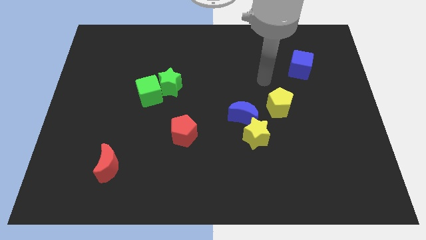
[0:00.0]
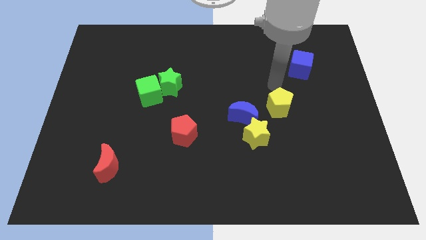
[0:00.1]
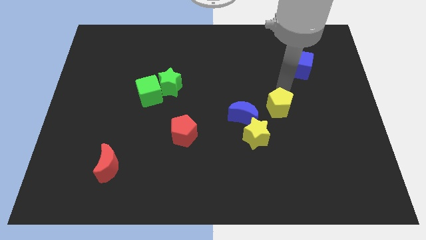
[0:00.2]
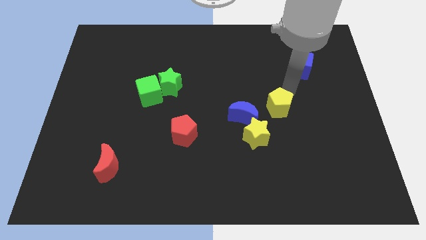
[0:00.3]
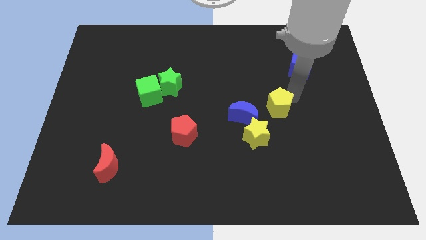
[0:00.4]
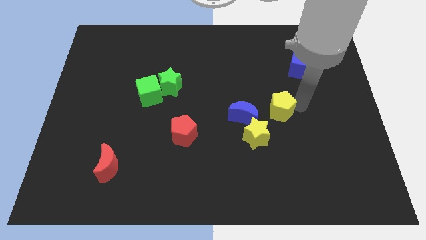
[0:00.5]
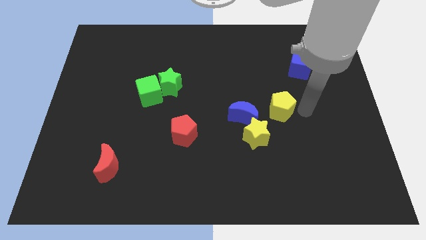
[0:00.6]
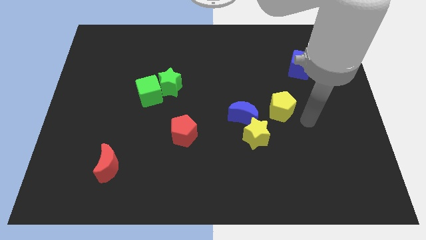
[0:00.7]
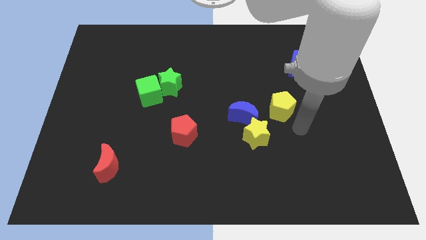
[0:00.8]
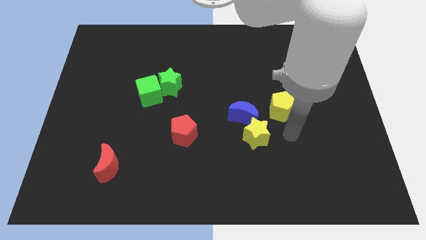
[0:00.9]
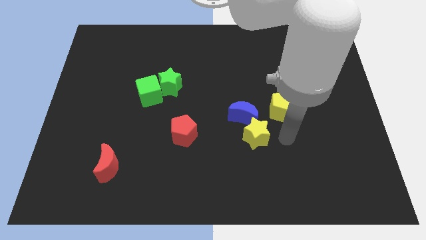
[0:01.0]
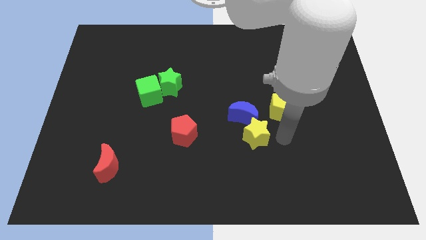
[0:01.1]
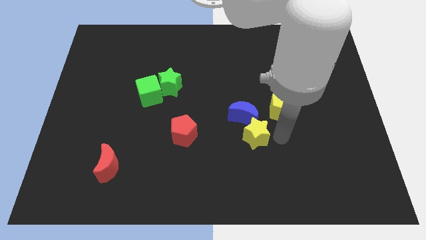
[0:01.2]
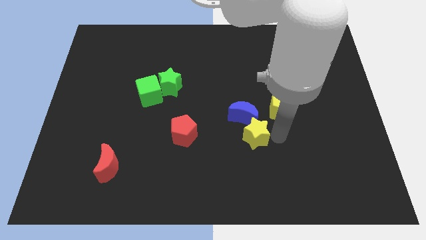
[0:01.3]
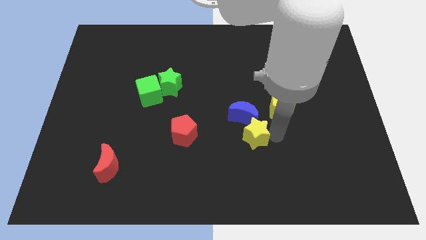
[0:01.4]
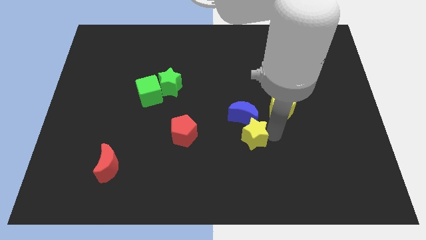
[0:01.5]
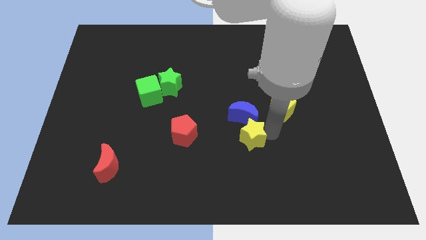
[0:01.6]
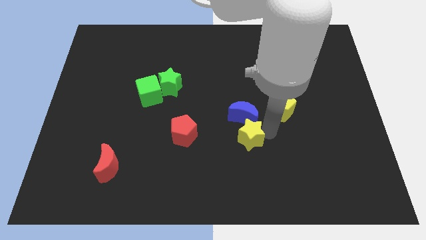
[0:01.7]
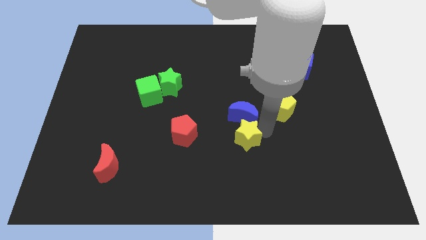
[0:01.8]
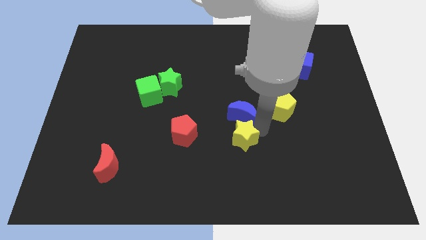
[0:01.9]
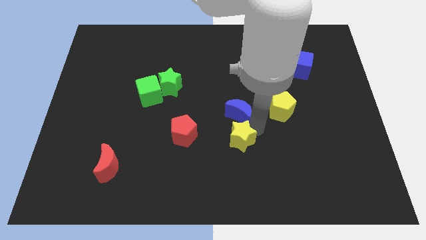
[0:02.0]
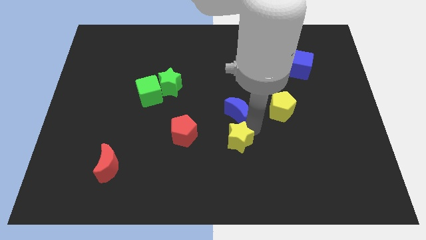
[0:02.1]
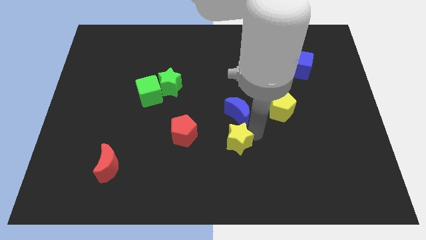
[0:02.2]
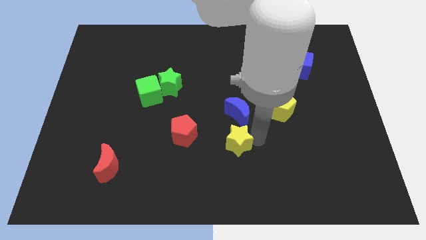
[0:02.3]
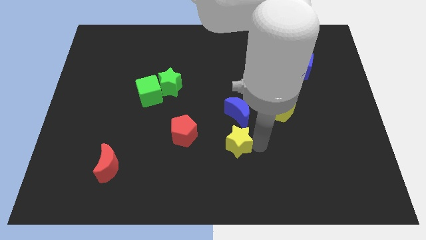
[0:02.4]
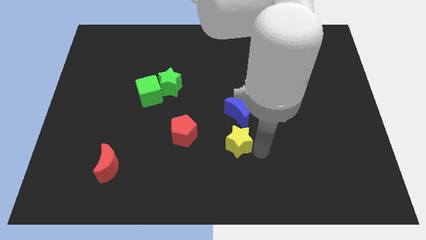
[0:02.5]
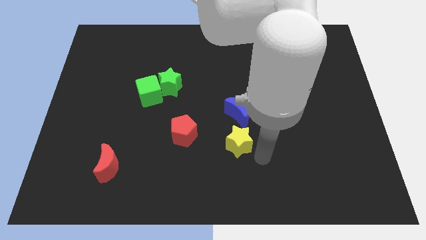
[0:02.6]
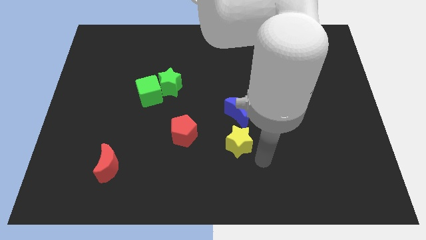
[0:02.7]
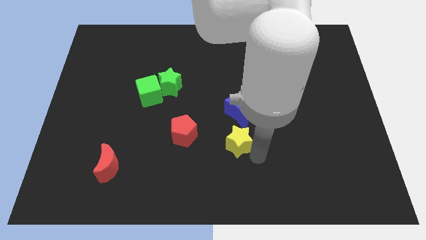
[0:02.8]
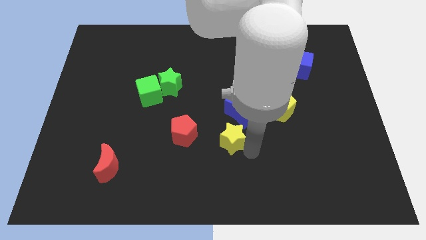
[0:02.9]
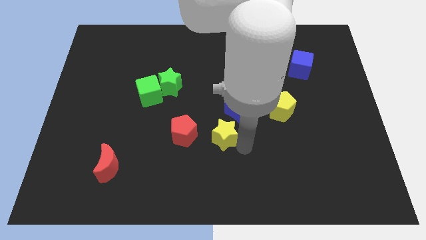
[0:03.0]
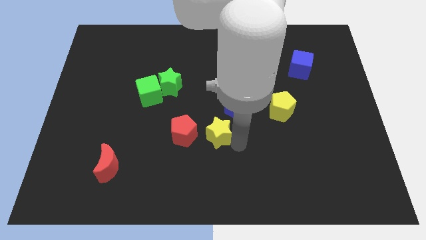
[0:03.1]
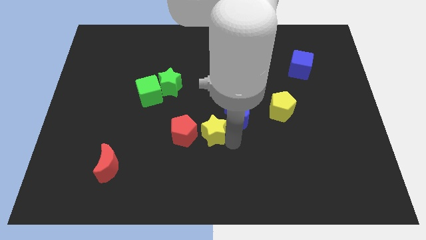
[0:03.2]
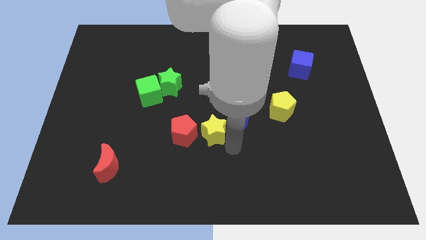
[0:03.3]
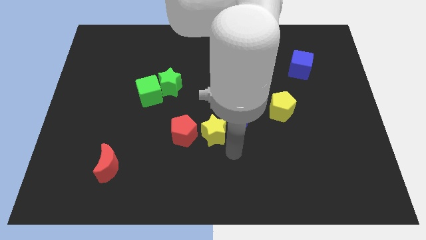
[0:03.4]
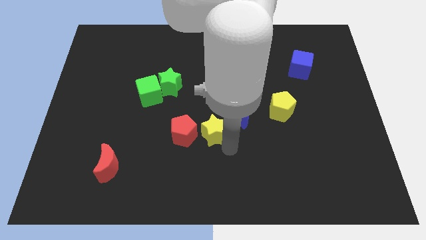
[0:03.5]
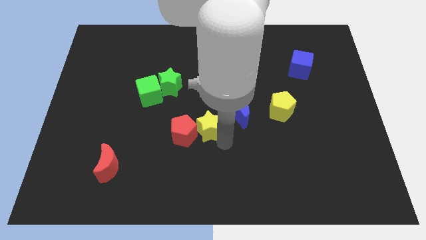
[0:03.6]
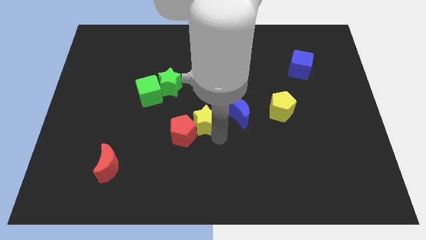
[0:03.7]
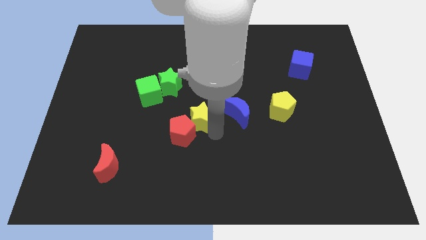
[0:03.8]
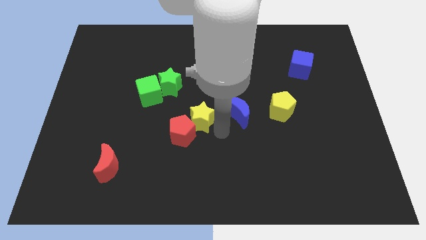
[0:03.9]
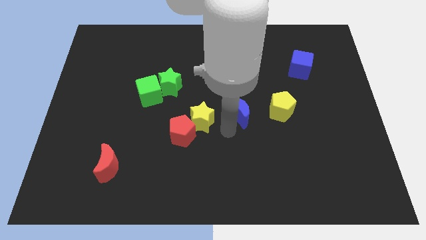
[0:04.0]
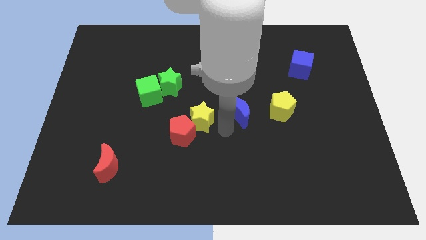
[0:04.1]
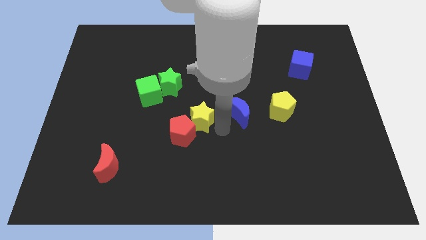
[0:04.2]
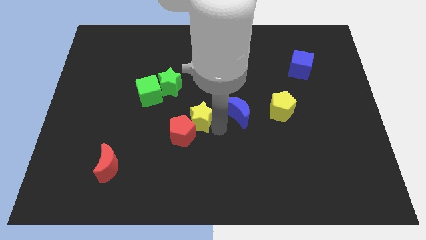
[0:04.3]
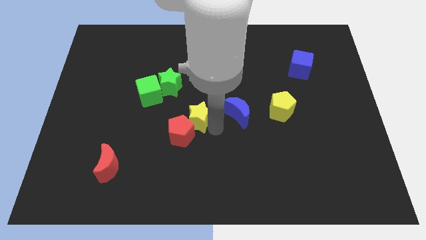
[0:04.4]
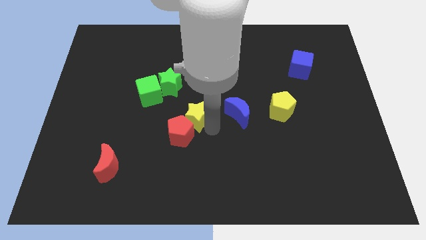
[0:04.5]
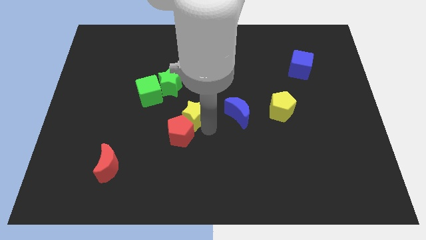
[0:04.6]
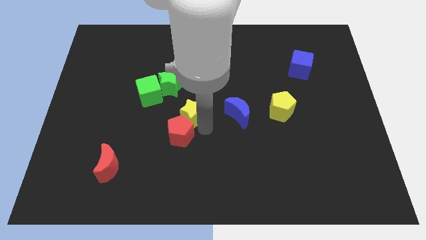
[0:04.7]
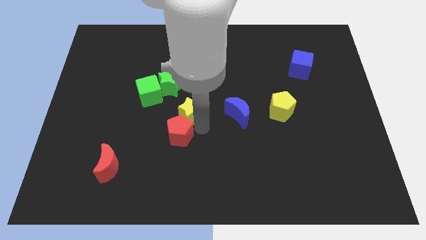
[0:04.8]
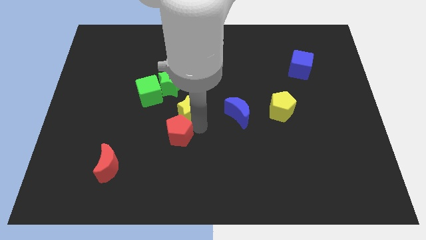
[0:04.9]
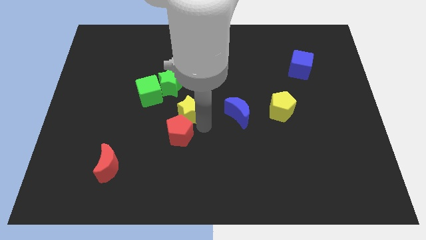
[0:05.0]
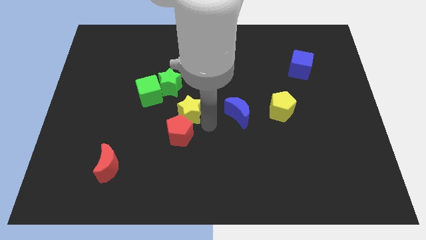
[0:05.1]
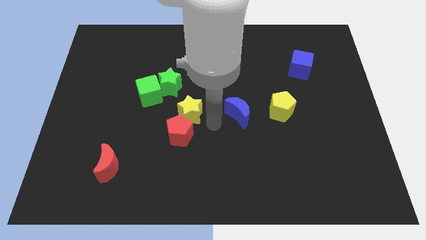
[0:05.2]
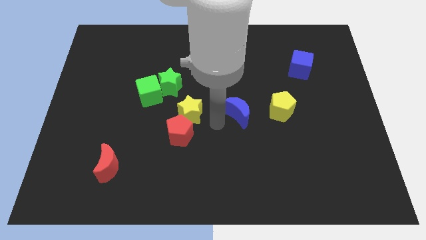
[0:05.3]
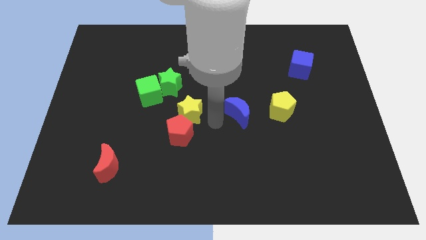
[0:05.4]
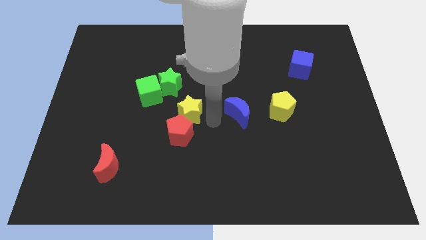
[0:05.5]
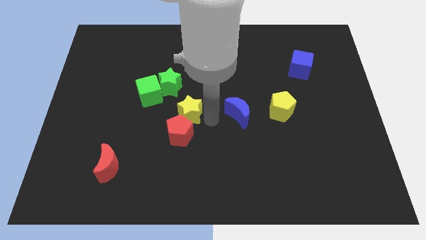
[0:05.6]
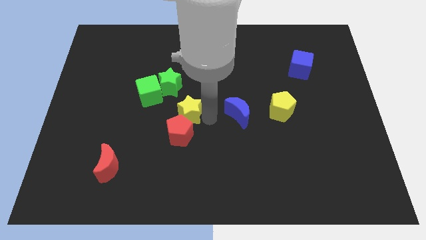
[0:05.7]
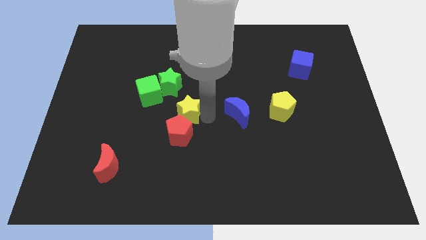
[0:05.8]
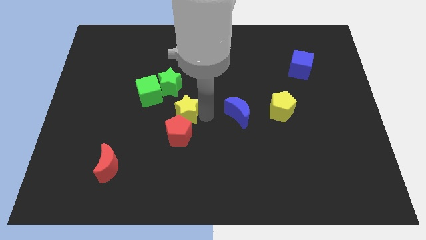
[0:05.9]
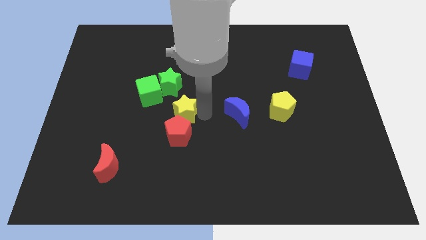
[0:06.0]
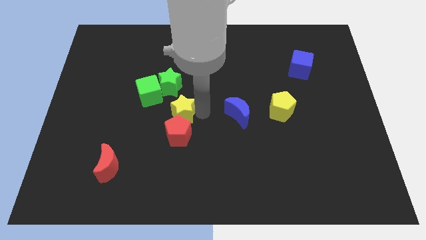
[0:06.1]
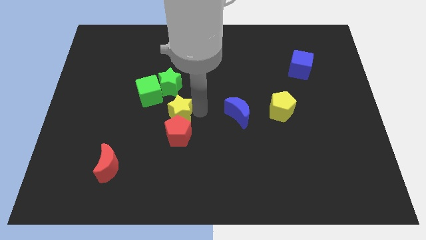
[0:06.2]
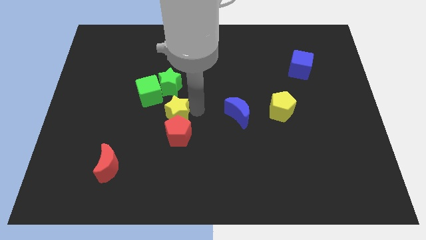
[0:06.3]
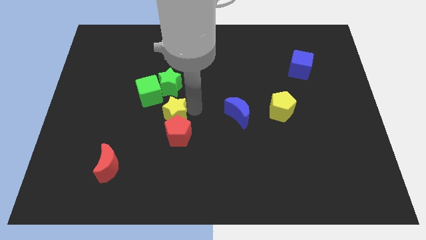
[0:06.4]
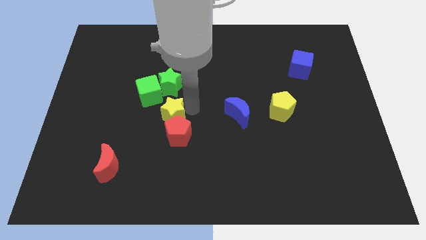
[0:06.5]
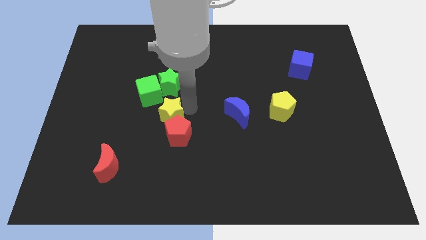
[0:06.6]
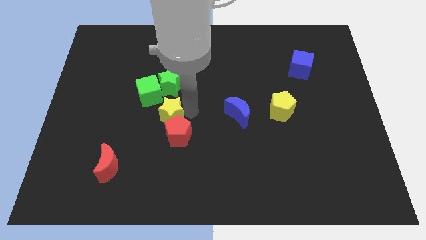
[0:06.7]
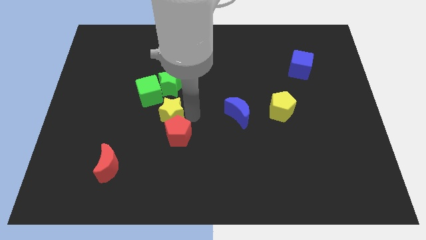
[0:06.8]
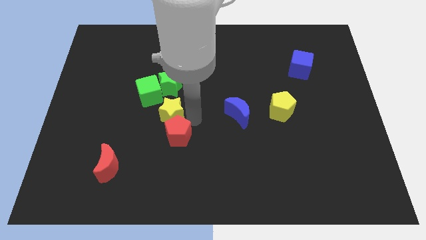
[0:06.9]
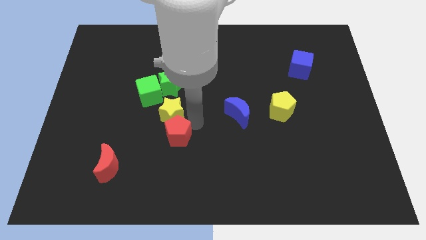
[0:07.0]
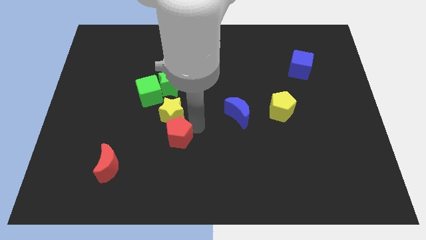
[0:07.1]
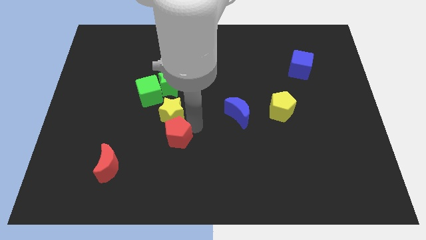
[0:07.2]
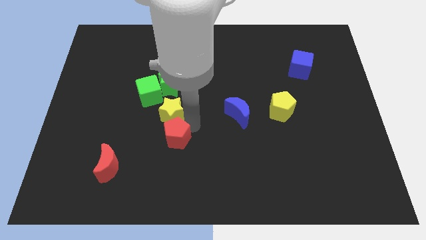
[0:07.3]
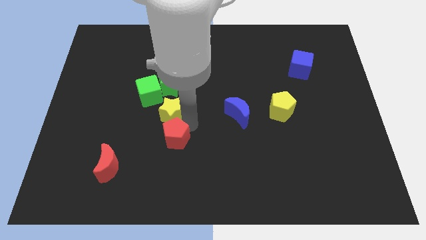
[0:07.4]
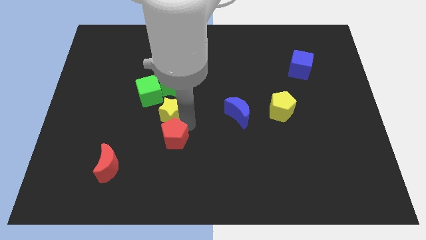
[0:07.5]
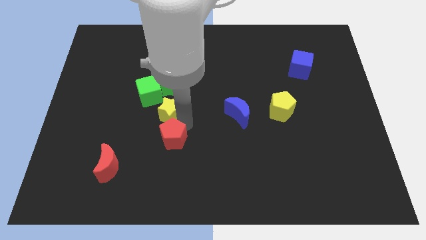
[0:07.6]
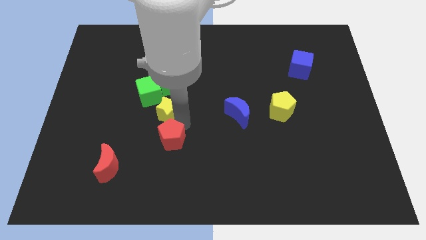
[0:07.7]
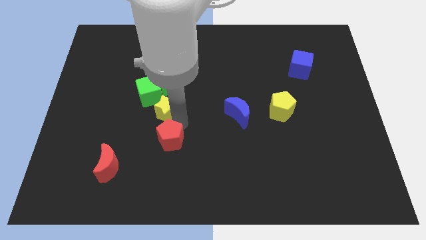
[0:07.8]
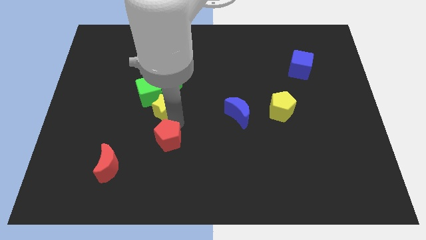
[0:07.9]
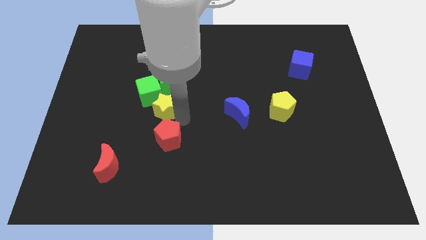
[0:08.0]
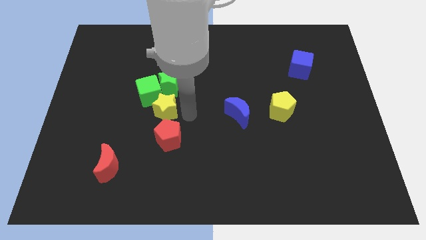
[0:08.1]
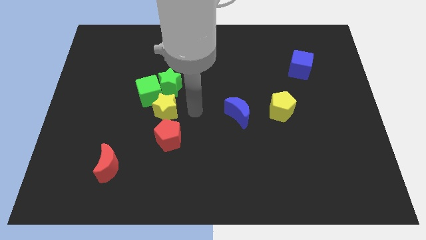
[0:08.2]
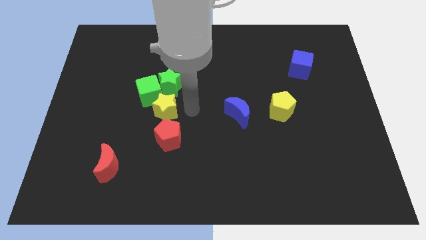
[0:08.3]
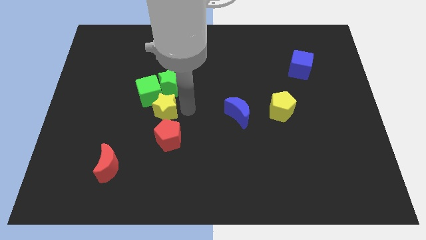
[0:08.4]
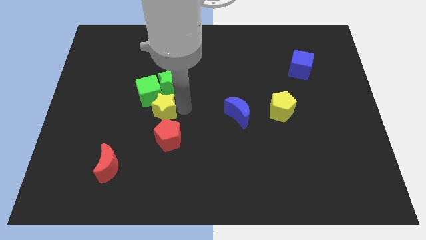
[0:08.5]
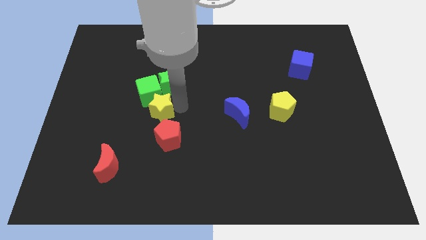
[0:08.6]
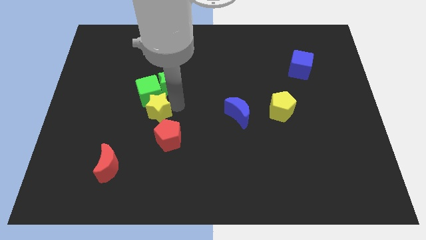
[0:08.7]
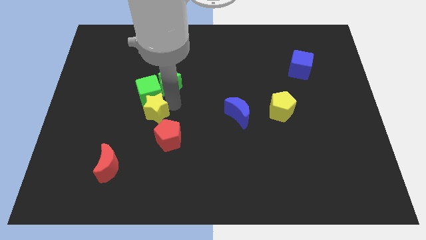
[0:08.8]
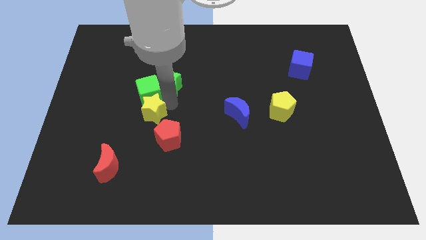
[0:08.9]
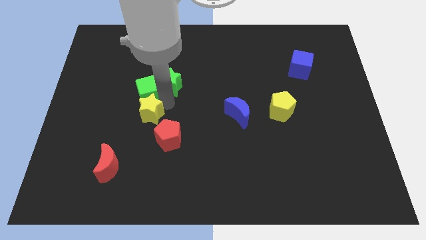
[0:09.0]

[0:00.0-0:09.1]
move the yellow star diagonally down and to the left of the green cube
